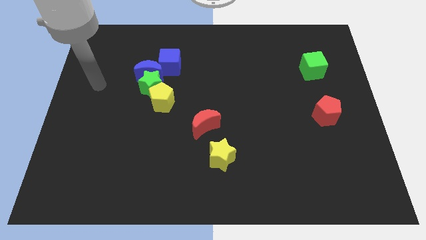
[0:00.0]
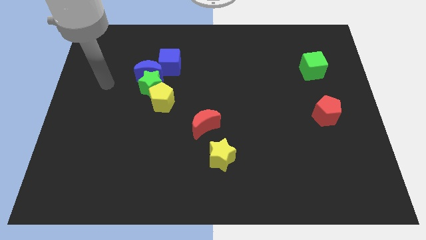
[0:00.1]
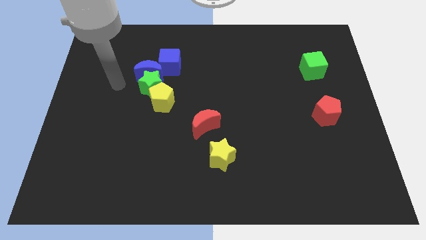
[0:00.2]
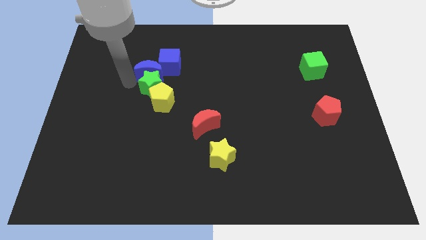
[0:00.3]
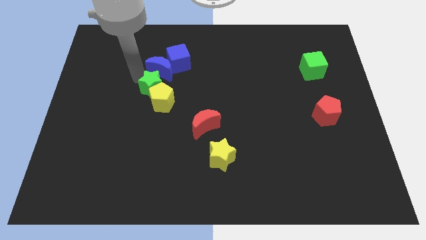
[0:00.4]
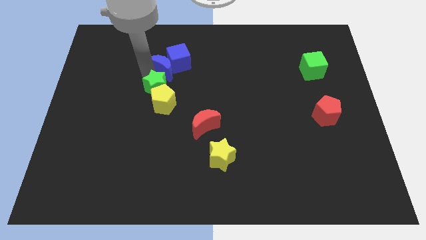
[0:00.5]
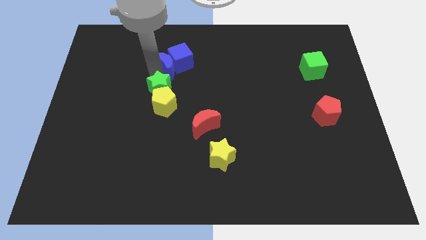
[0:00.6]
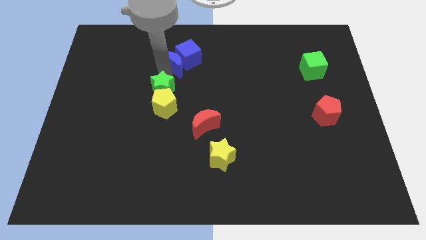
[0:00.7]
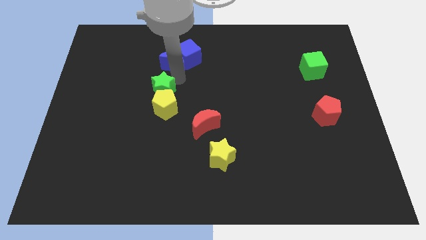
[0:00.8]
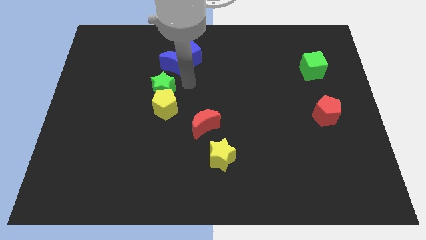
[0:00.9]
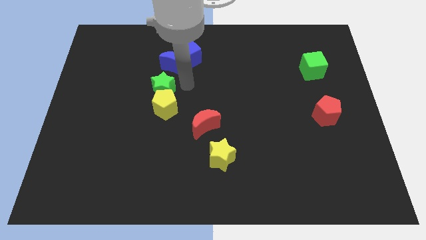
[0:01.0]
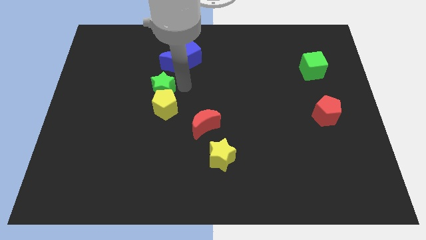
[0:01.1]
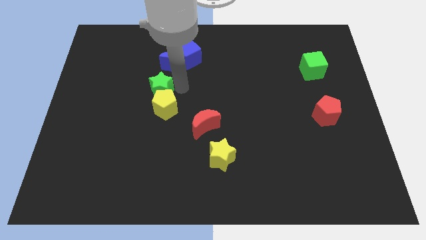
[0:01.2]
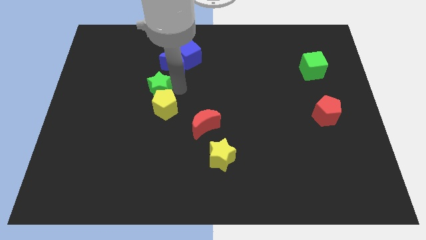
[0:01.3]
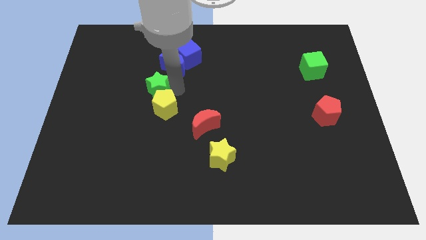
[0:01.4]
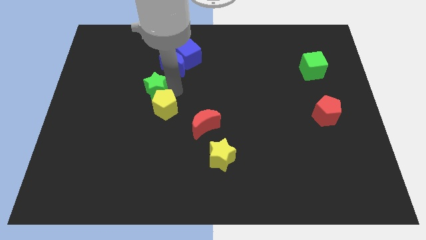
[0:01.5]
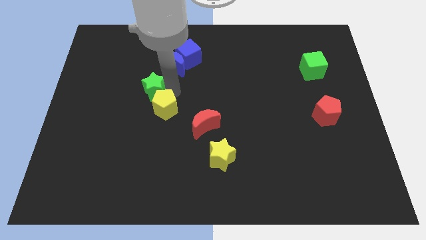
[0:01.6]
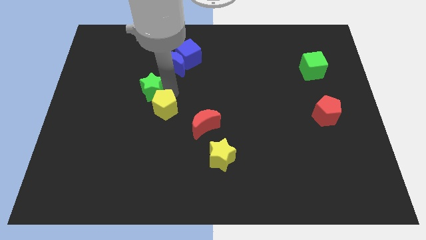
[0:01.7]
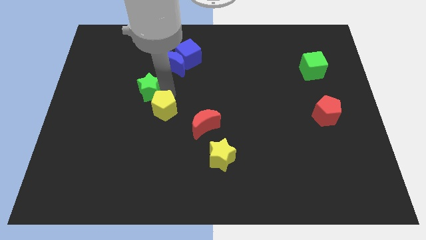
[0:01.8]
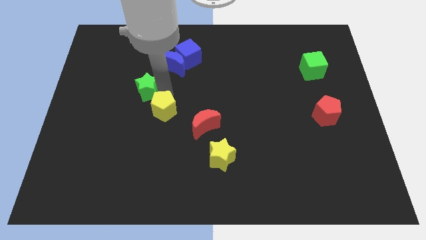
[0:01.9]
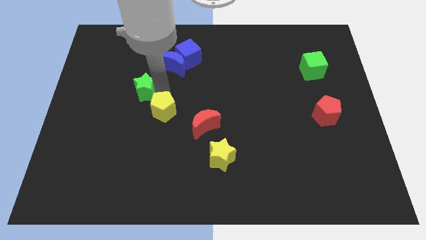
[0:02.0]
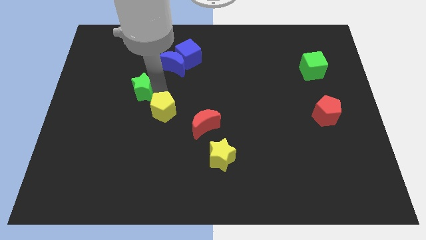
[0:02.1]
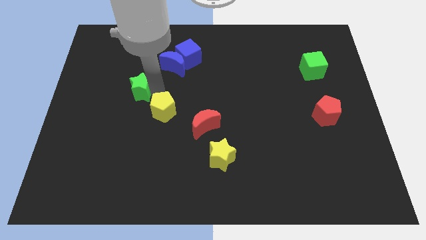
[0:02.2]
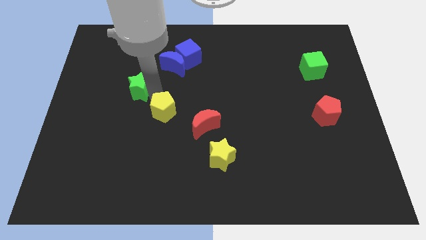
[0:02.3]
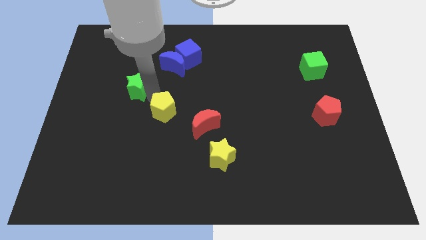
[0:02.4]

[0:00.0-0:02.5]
move the green star away from the blue moon, yellow pentagon, and blue cube

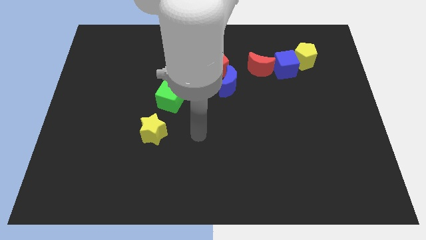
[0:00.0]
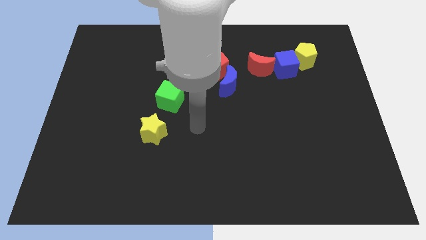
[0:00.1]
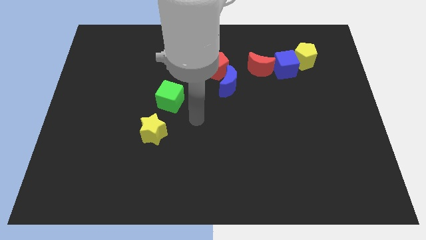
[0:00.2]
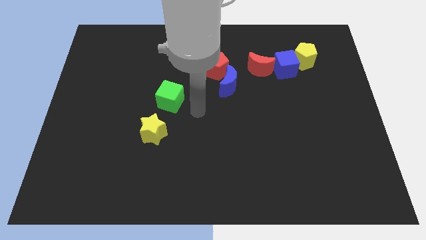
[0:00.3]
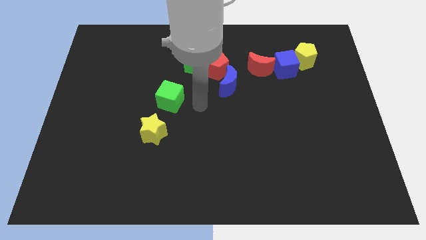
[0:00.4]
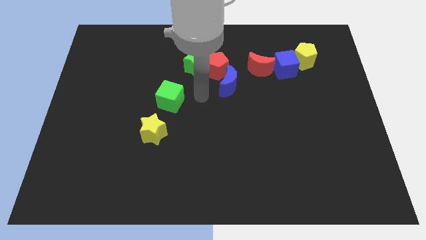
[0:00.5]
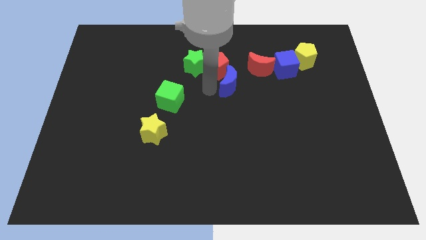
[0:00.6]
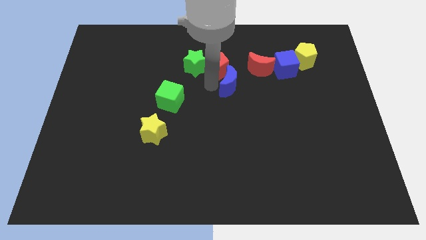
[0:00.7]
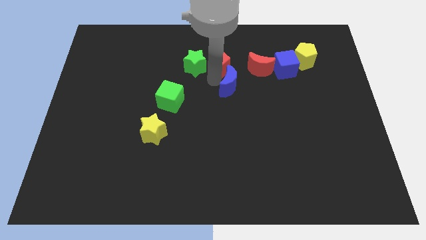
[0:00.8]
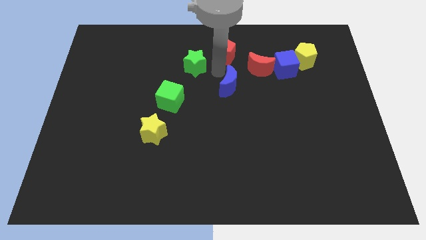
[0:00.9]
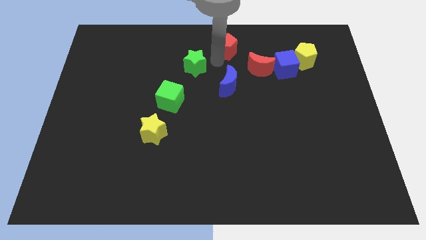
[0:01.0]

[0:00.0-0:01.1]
separate the green star from the red pentagon

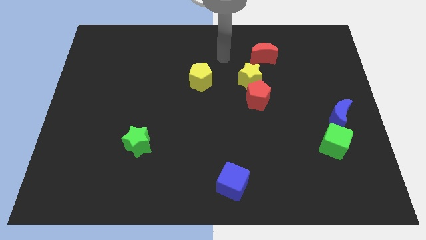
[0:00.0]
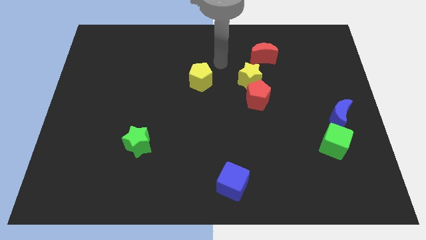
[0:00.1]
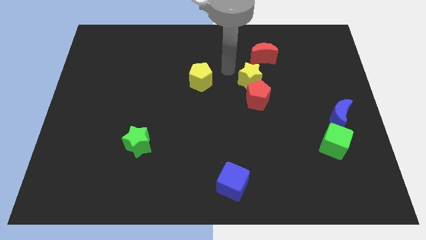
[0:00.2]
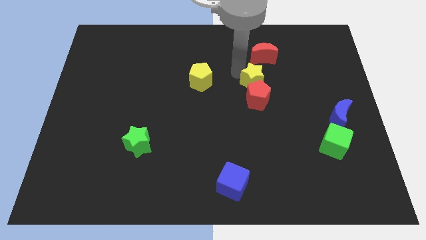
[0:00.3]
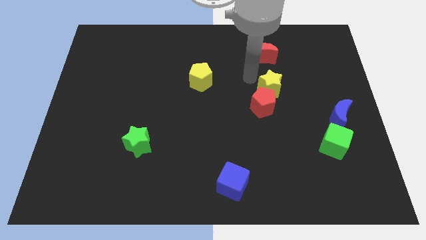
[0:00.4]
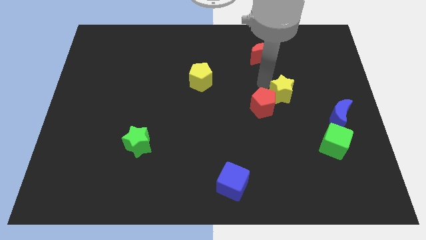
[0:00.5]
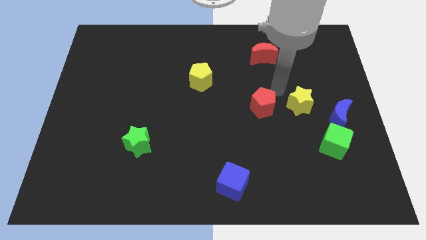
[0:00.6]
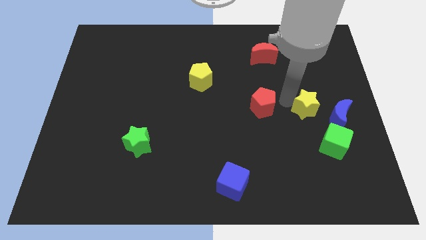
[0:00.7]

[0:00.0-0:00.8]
separate the red pentagon from the yellow star

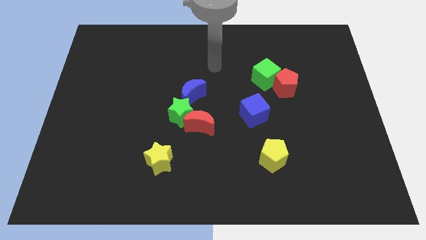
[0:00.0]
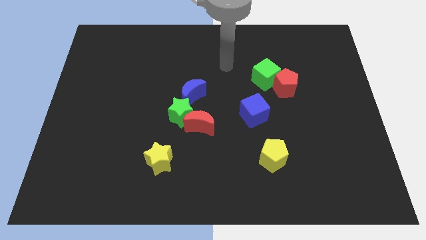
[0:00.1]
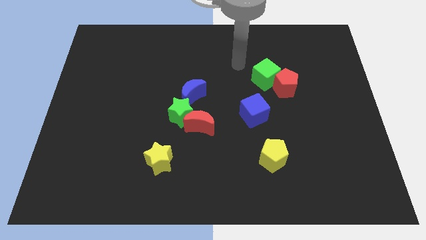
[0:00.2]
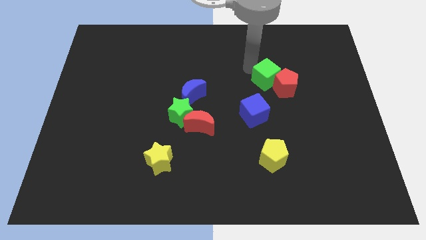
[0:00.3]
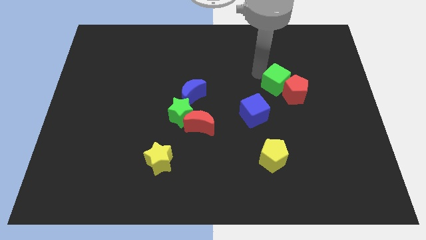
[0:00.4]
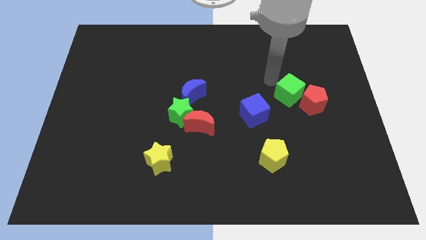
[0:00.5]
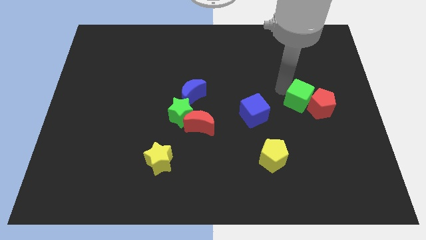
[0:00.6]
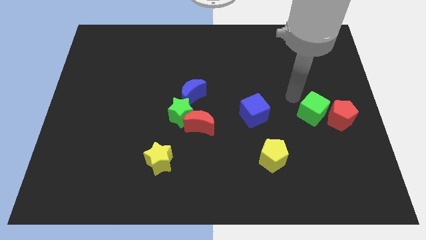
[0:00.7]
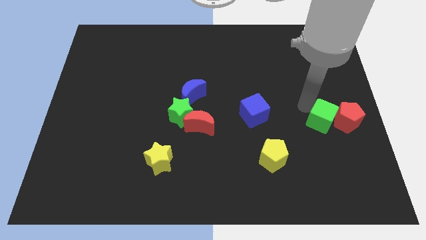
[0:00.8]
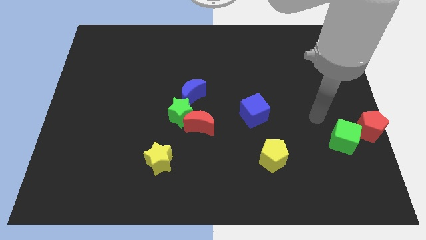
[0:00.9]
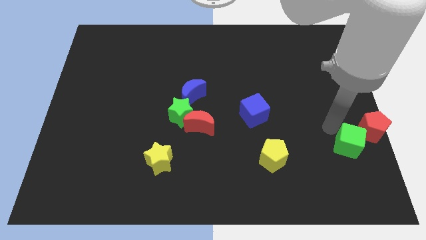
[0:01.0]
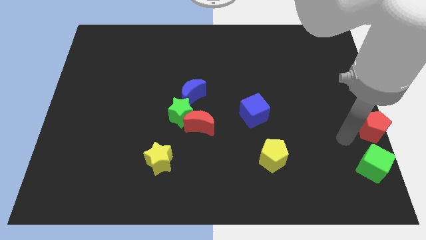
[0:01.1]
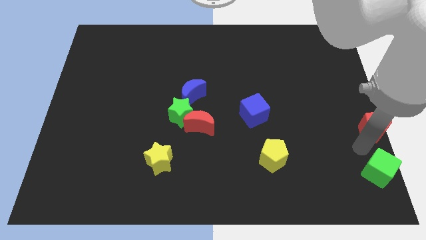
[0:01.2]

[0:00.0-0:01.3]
pull the red pentagon apart from the green cube

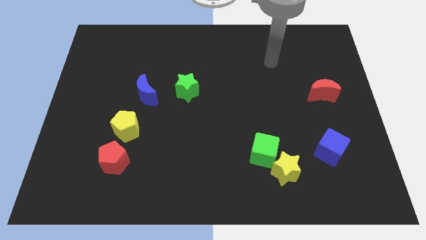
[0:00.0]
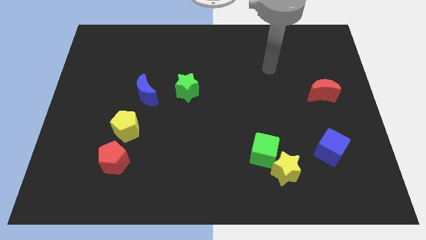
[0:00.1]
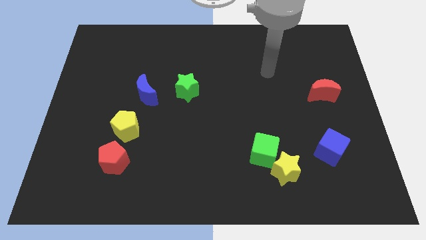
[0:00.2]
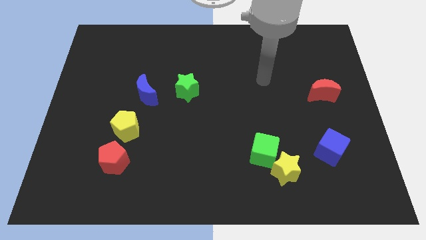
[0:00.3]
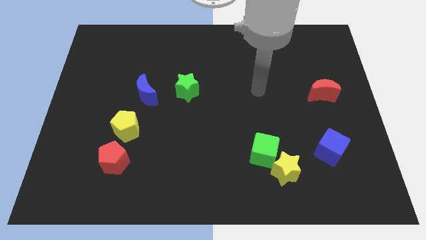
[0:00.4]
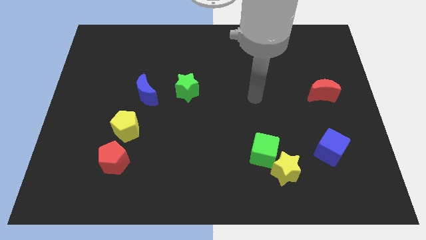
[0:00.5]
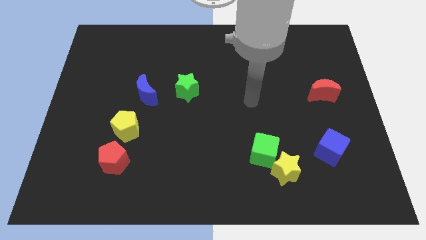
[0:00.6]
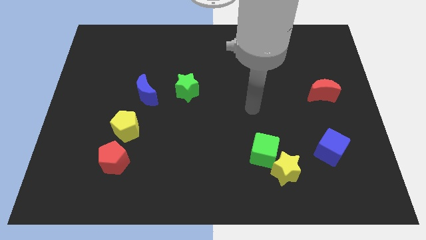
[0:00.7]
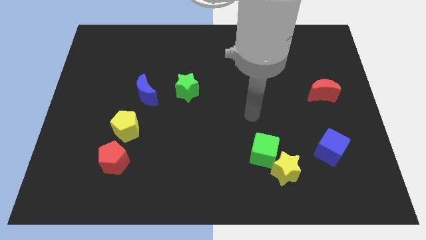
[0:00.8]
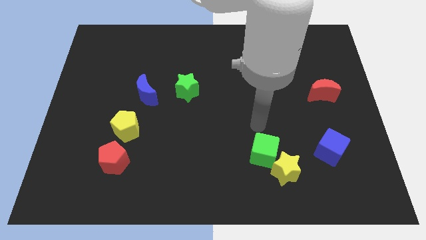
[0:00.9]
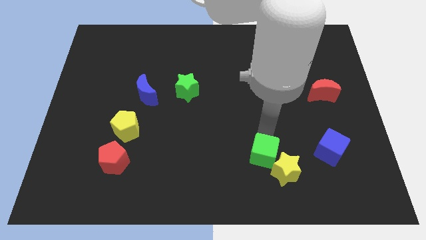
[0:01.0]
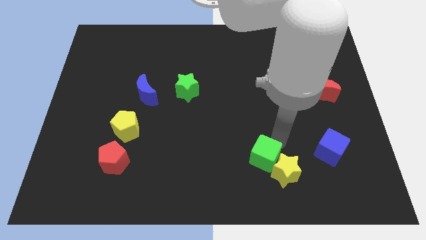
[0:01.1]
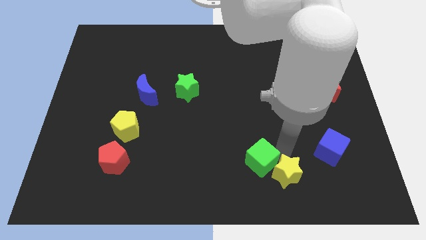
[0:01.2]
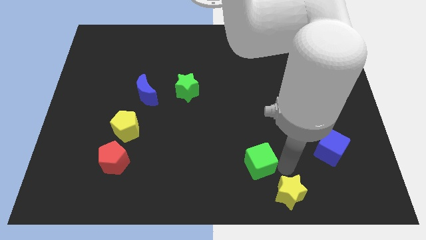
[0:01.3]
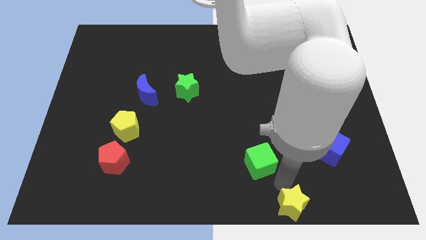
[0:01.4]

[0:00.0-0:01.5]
pull the green cube apart from the yellow star

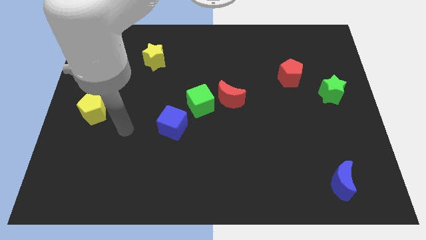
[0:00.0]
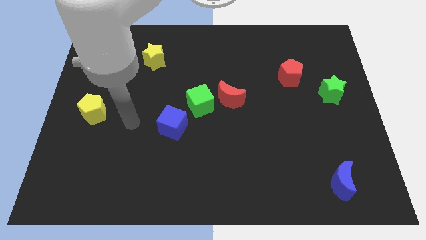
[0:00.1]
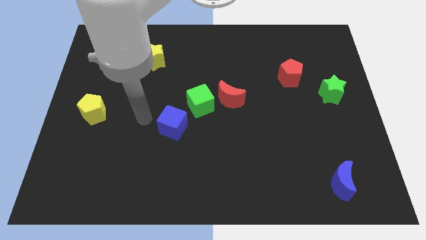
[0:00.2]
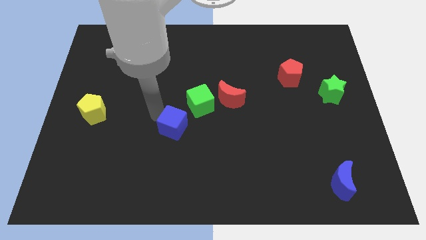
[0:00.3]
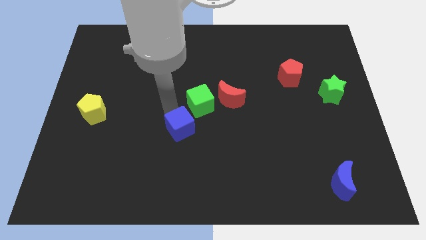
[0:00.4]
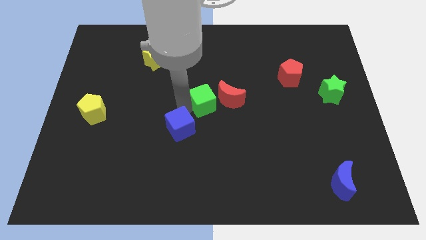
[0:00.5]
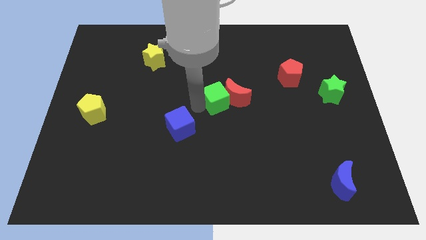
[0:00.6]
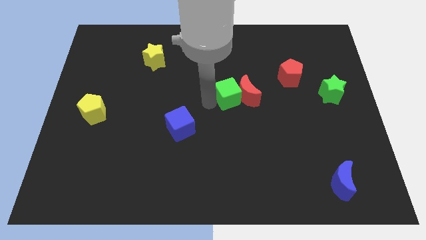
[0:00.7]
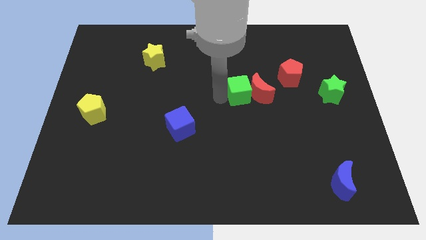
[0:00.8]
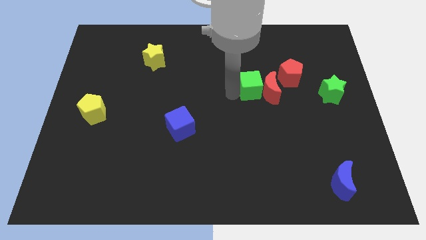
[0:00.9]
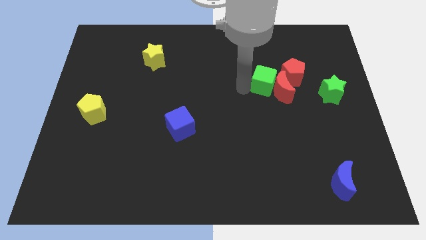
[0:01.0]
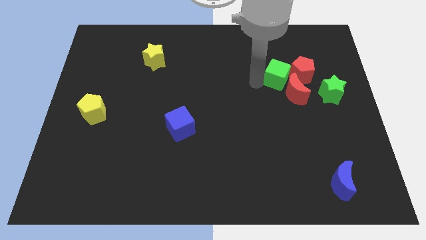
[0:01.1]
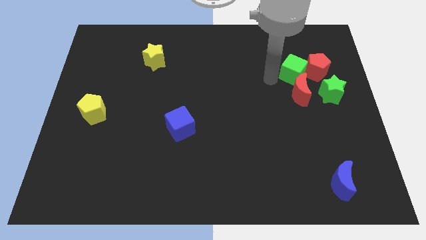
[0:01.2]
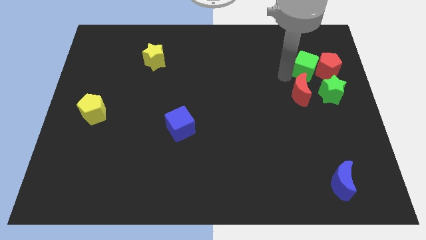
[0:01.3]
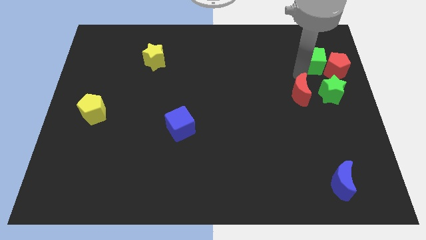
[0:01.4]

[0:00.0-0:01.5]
separate the red moon from the green cube

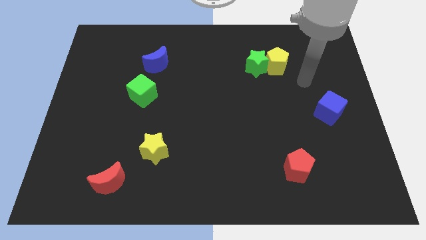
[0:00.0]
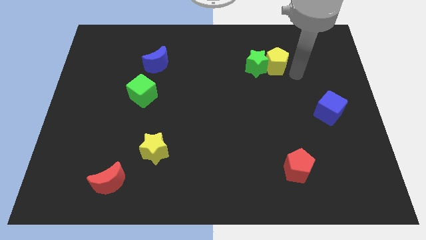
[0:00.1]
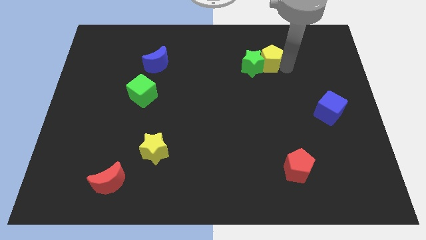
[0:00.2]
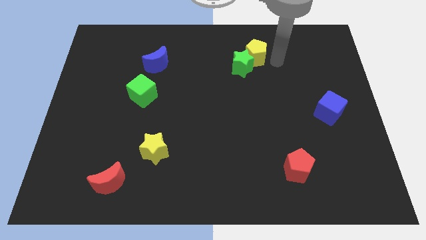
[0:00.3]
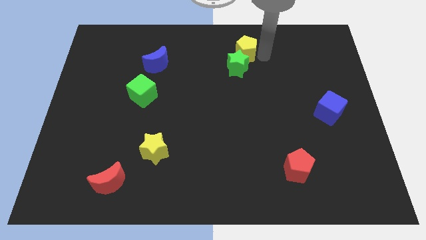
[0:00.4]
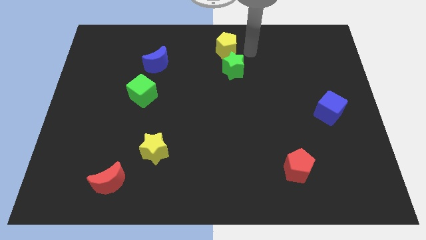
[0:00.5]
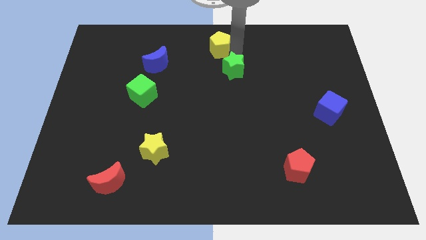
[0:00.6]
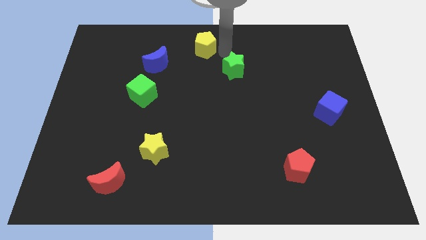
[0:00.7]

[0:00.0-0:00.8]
move the green star away from the yellow pentagon
